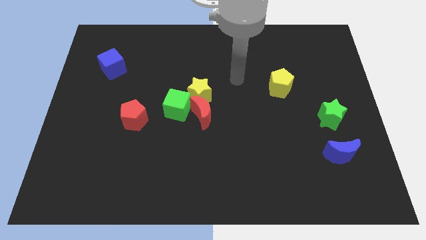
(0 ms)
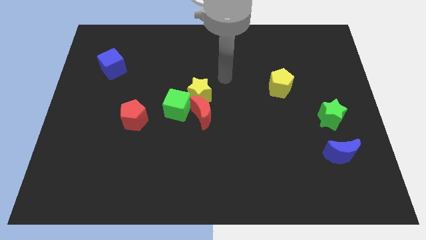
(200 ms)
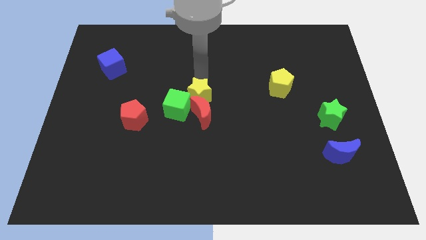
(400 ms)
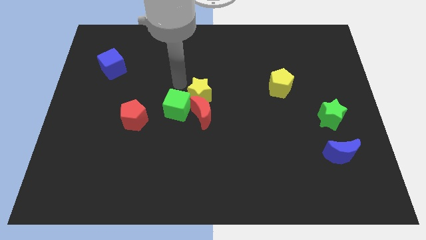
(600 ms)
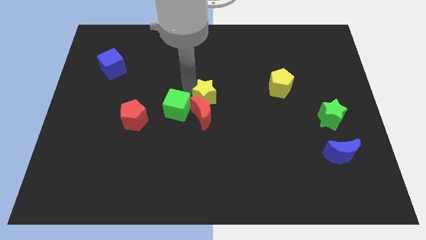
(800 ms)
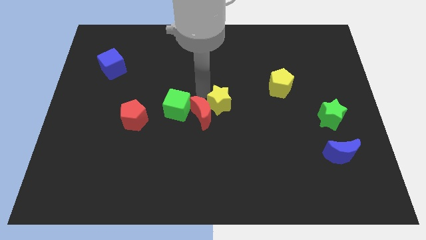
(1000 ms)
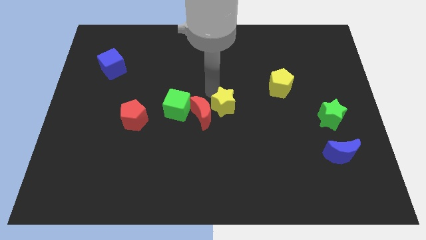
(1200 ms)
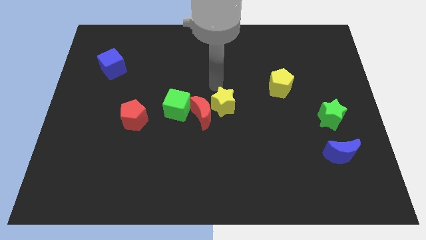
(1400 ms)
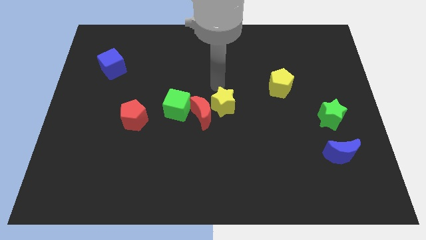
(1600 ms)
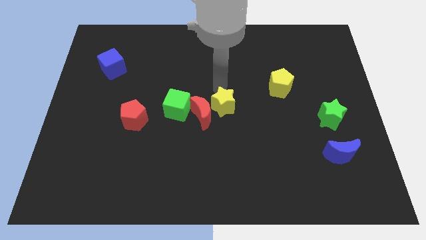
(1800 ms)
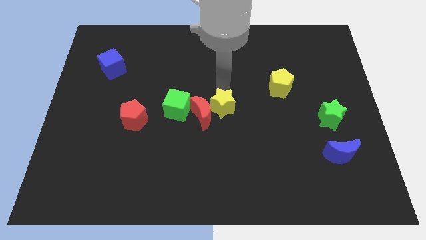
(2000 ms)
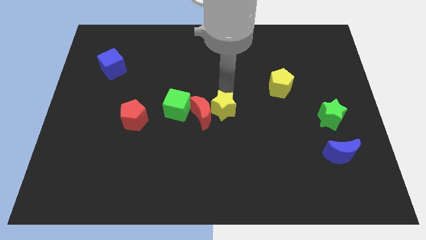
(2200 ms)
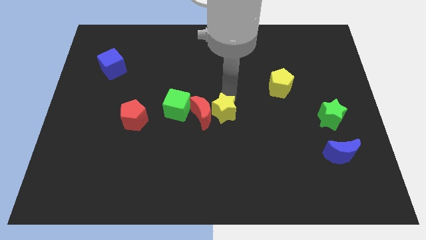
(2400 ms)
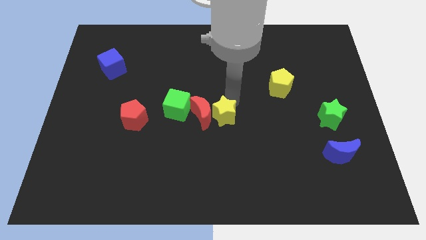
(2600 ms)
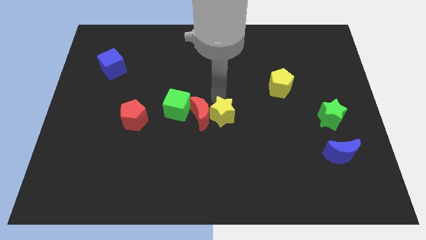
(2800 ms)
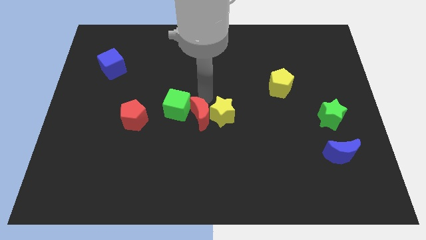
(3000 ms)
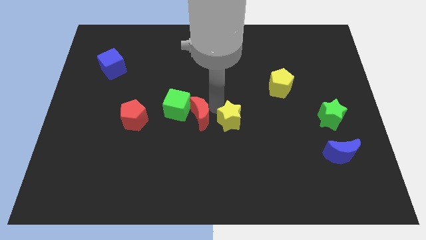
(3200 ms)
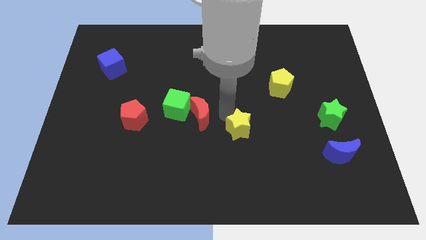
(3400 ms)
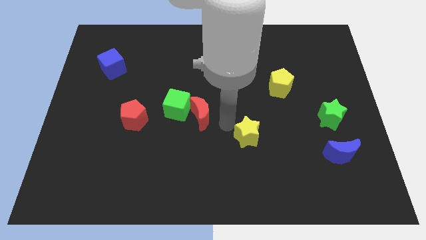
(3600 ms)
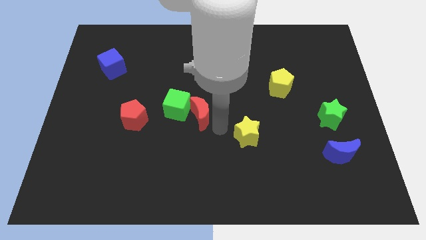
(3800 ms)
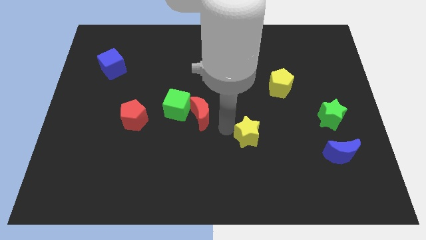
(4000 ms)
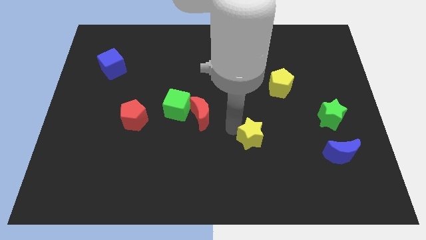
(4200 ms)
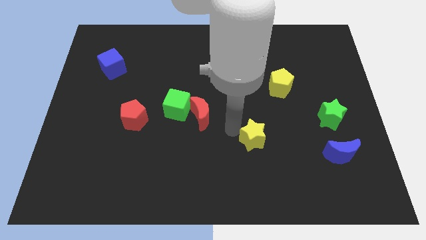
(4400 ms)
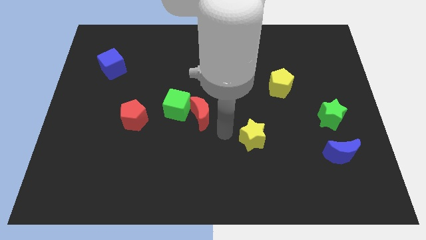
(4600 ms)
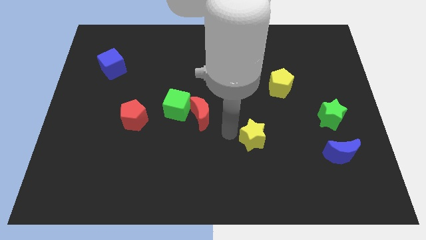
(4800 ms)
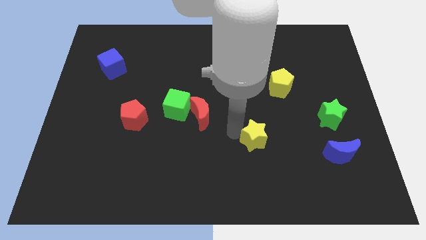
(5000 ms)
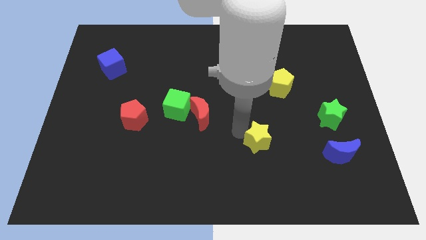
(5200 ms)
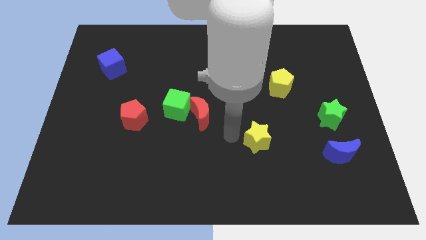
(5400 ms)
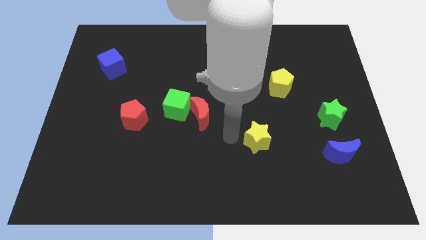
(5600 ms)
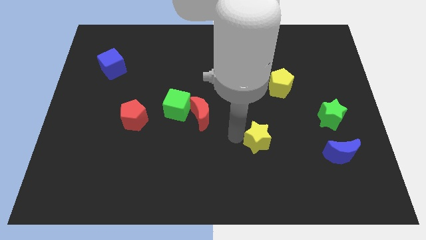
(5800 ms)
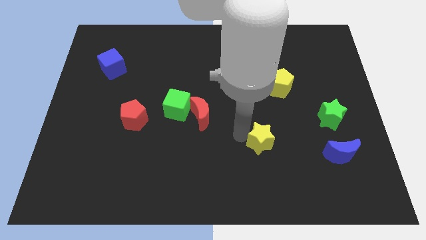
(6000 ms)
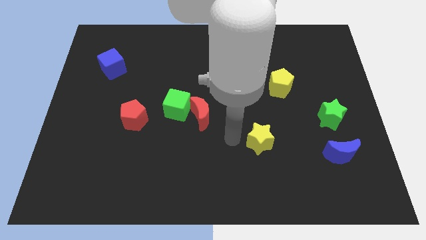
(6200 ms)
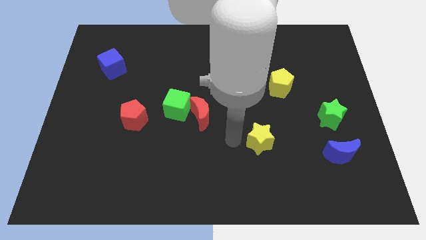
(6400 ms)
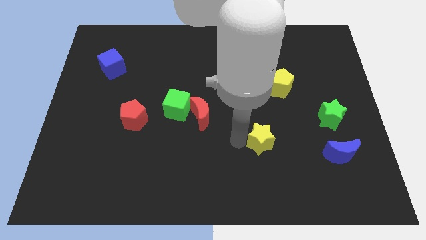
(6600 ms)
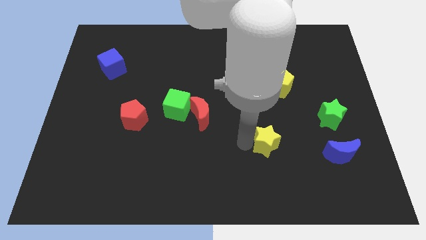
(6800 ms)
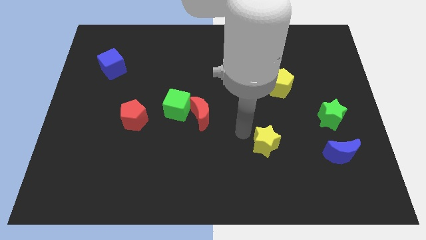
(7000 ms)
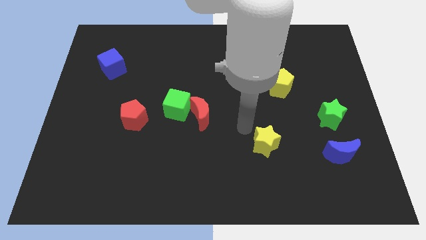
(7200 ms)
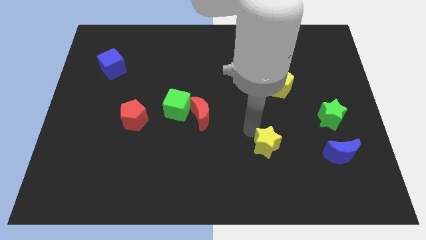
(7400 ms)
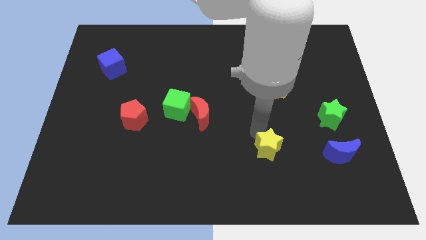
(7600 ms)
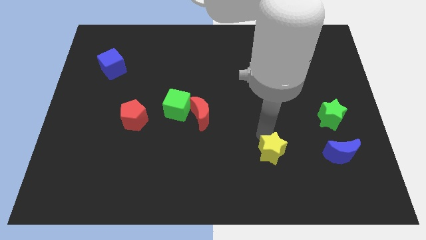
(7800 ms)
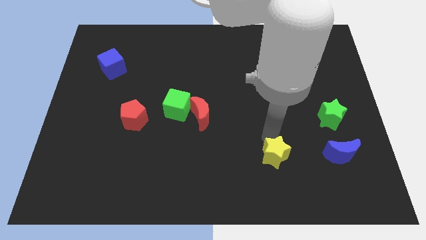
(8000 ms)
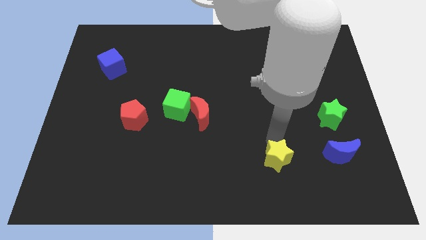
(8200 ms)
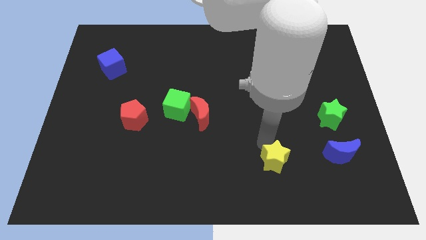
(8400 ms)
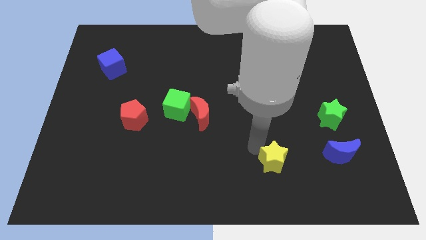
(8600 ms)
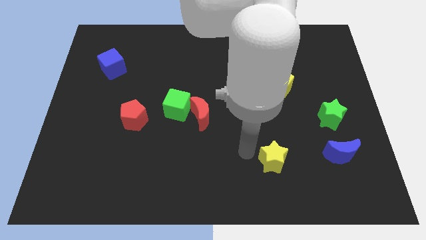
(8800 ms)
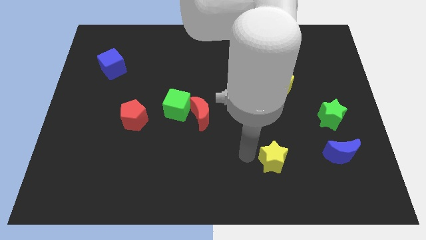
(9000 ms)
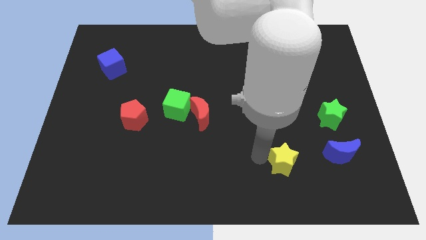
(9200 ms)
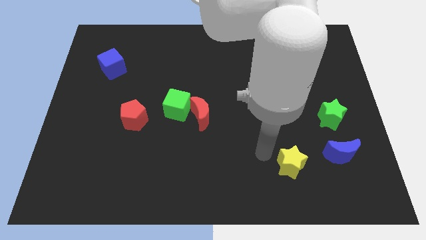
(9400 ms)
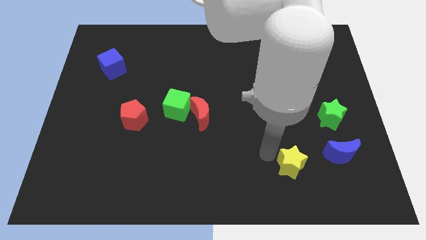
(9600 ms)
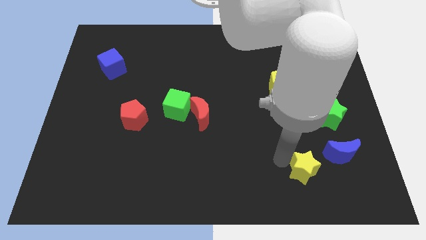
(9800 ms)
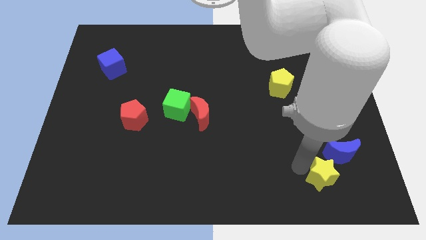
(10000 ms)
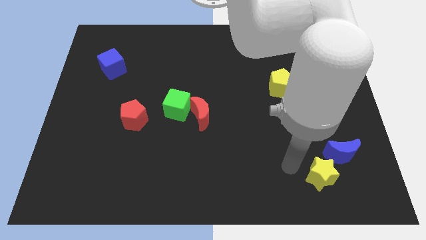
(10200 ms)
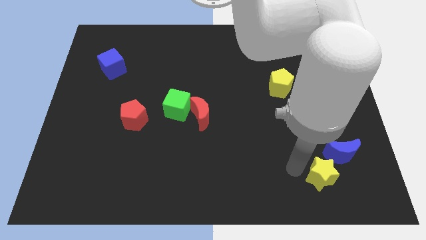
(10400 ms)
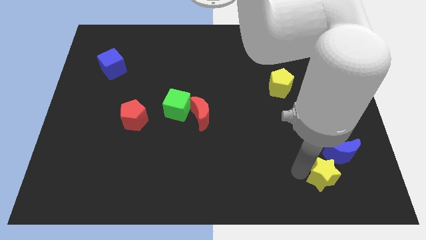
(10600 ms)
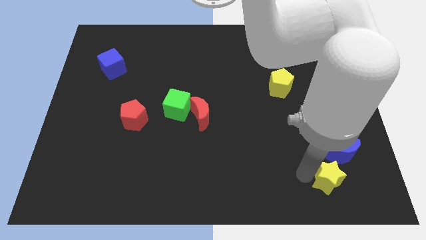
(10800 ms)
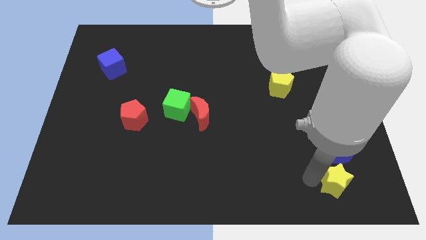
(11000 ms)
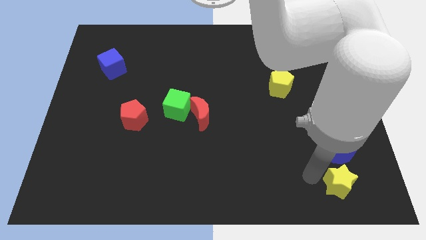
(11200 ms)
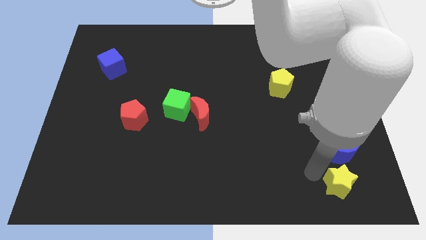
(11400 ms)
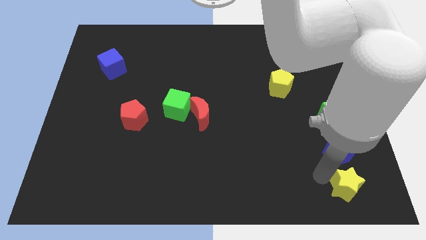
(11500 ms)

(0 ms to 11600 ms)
push the yellow star to the bottom right corner

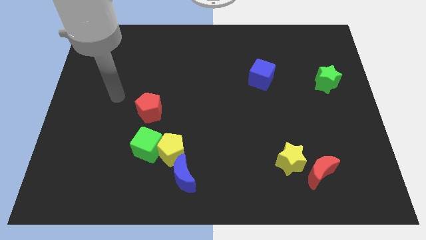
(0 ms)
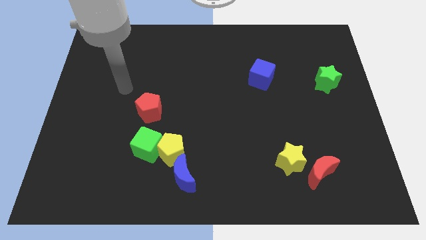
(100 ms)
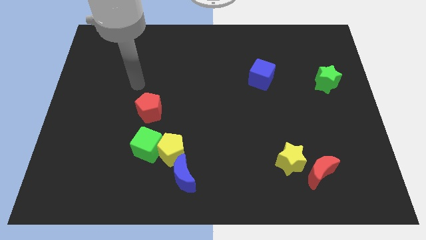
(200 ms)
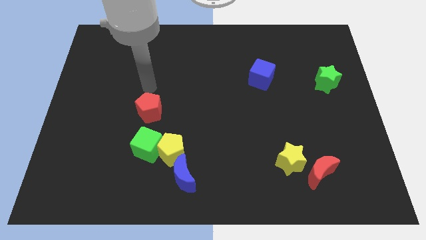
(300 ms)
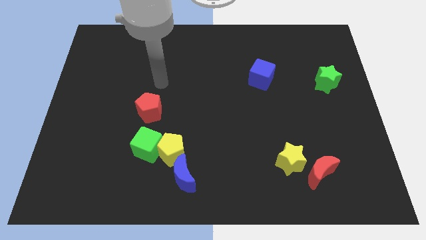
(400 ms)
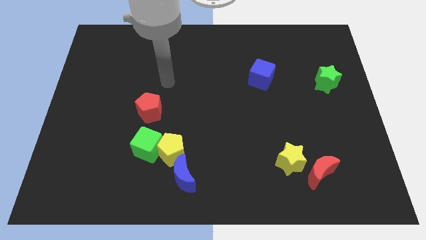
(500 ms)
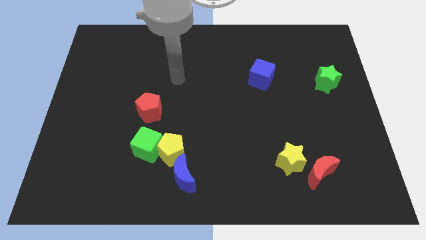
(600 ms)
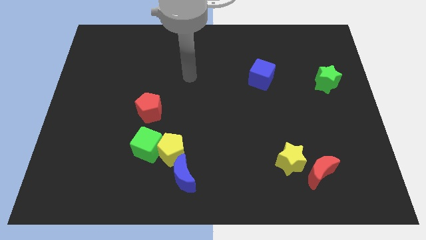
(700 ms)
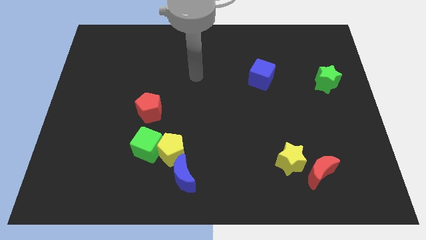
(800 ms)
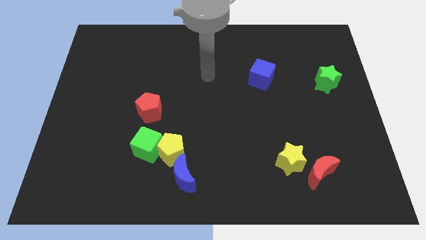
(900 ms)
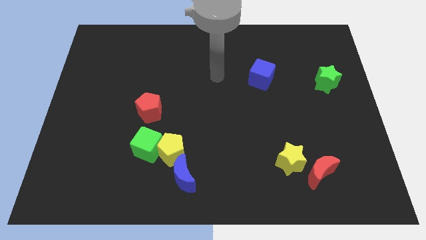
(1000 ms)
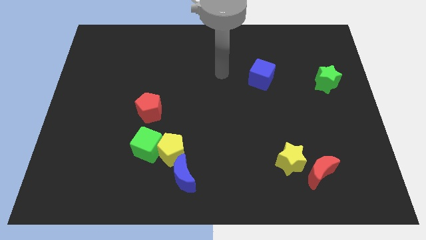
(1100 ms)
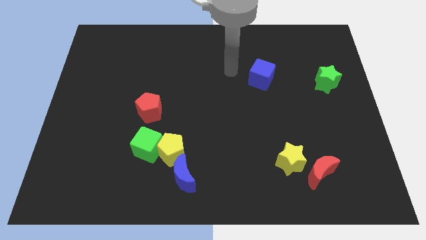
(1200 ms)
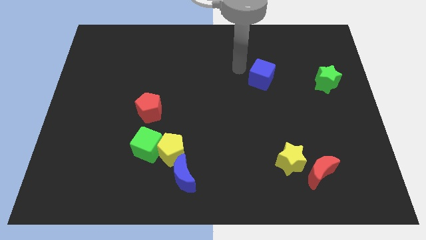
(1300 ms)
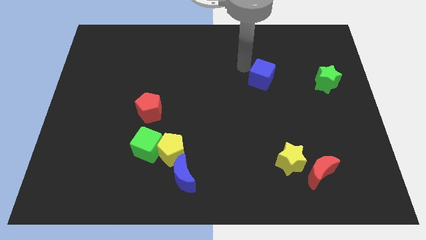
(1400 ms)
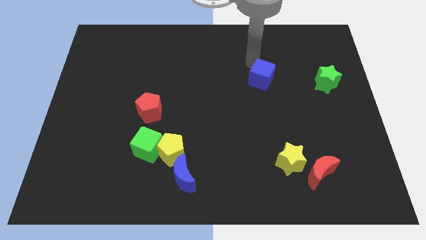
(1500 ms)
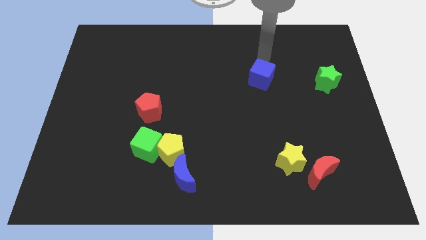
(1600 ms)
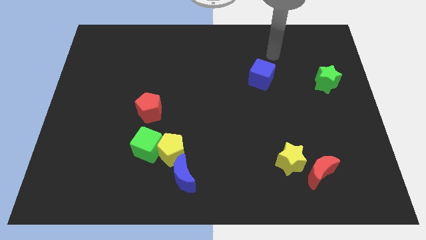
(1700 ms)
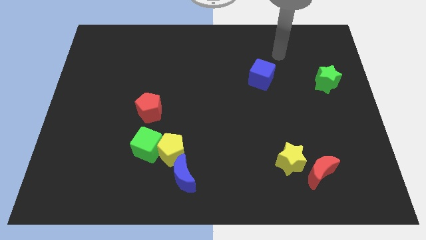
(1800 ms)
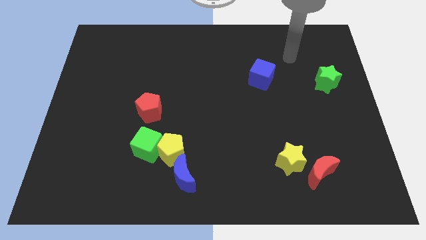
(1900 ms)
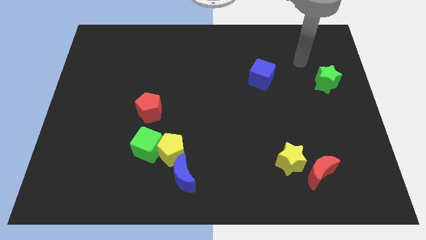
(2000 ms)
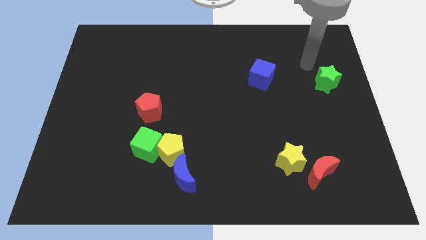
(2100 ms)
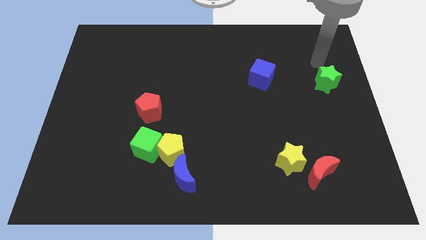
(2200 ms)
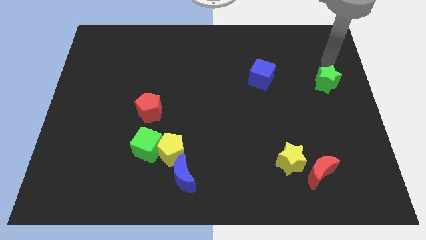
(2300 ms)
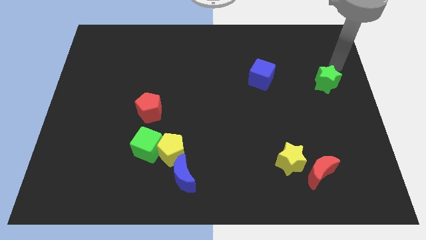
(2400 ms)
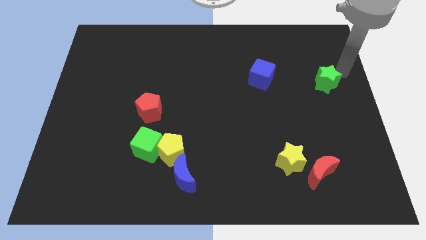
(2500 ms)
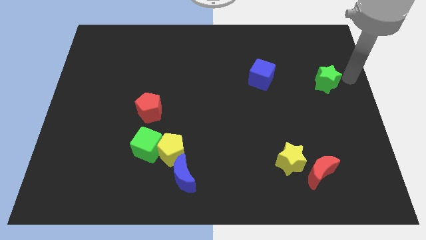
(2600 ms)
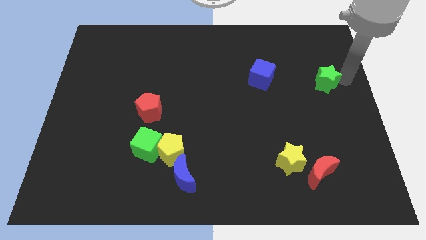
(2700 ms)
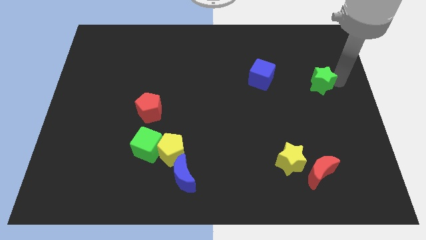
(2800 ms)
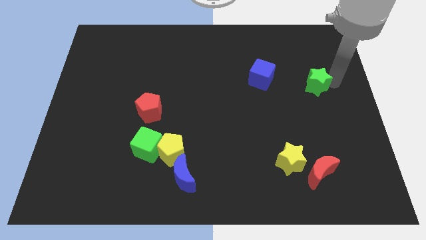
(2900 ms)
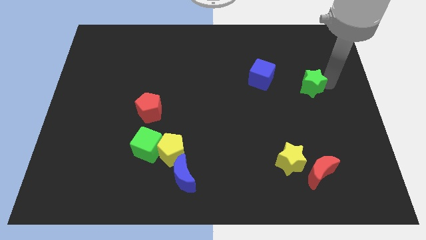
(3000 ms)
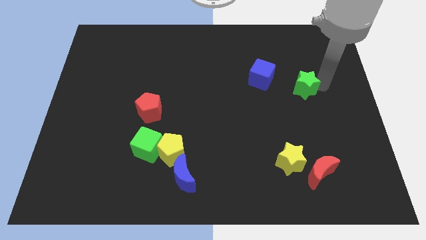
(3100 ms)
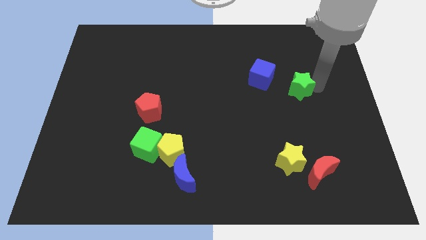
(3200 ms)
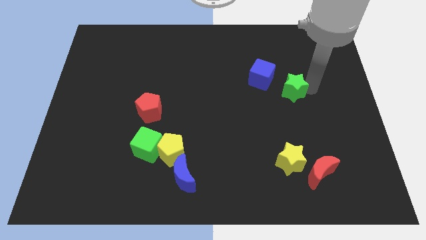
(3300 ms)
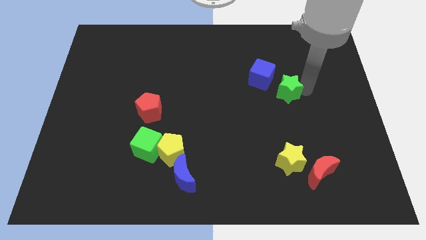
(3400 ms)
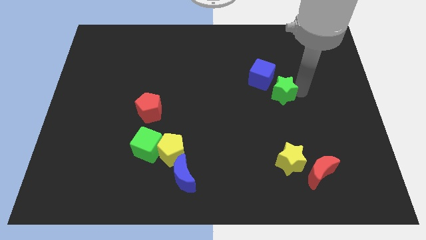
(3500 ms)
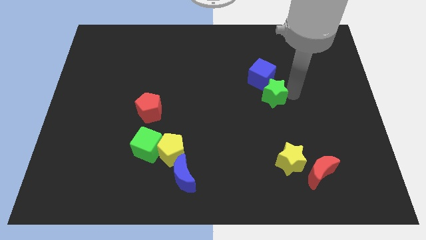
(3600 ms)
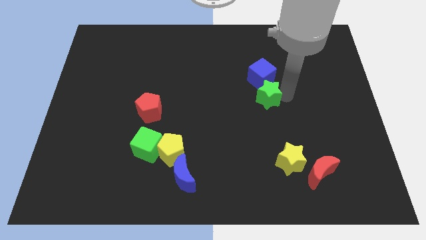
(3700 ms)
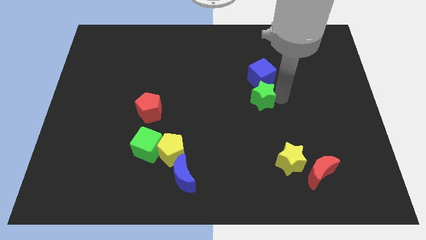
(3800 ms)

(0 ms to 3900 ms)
put the green star to the center
